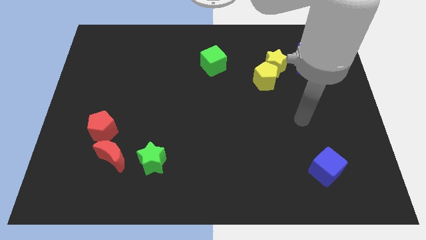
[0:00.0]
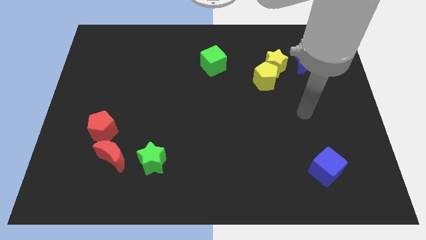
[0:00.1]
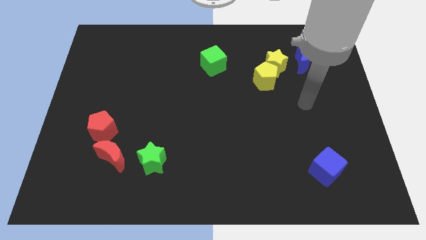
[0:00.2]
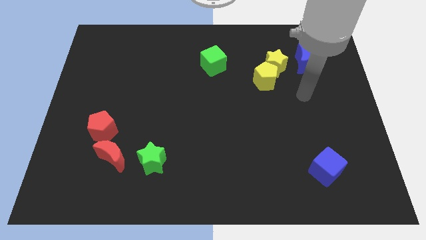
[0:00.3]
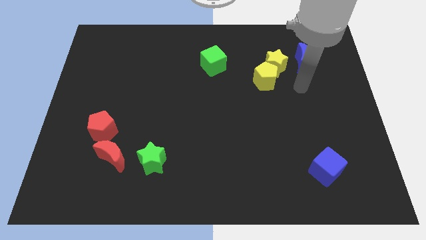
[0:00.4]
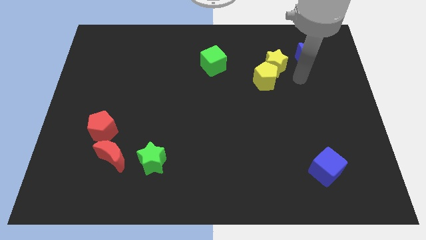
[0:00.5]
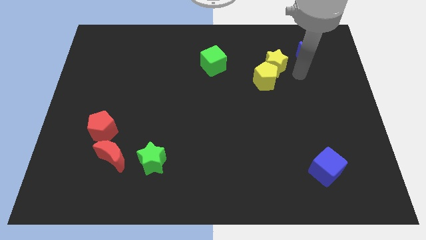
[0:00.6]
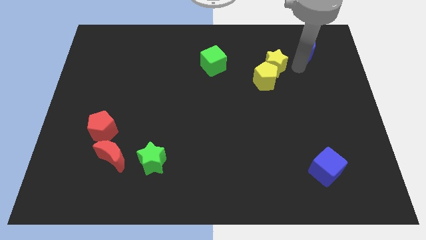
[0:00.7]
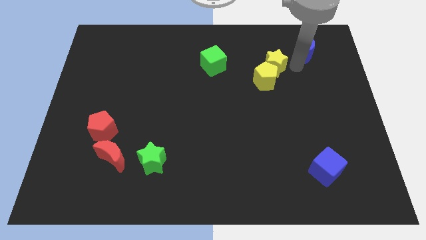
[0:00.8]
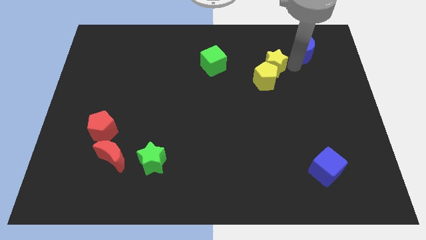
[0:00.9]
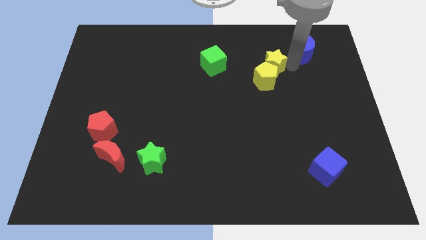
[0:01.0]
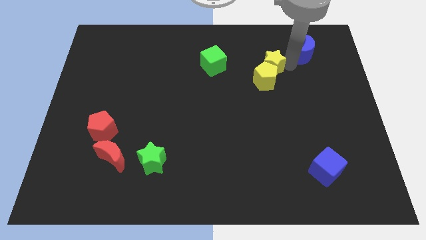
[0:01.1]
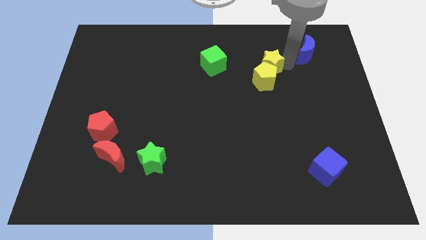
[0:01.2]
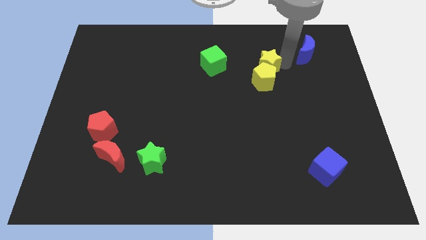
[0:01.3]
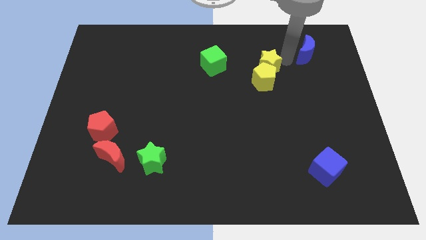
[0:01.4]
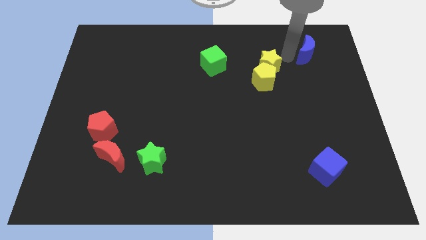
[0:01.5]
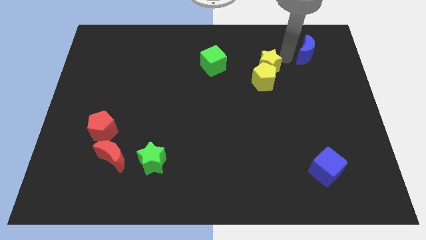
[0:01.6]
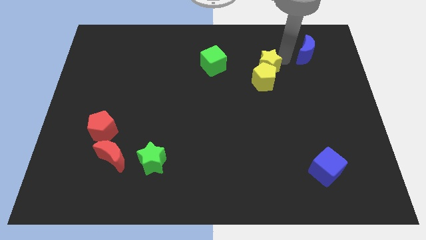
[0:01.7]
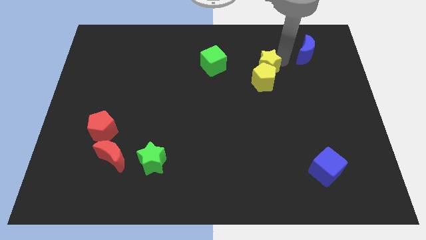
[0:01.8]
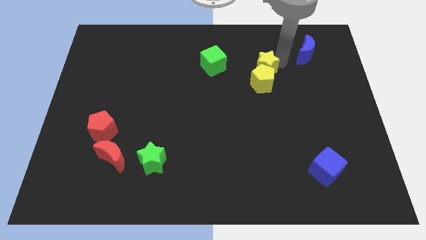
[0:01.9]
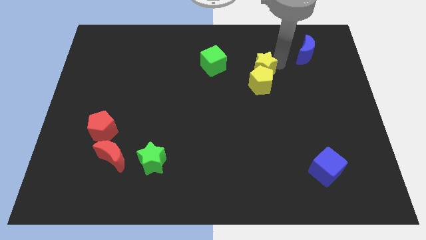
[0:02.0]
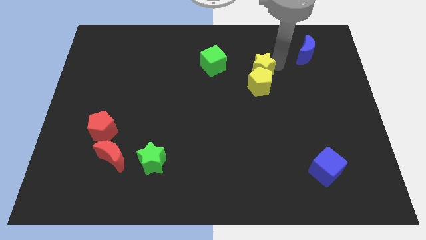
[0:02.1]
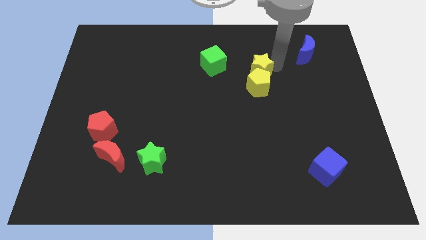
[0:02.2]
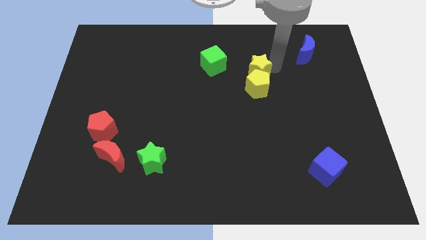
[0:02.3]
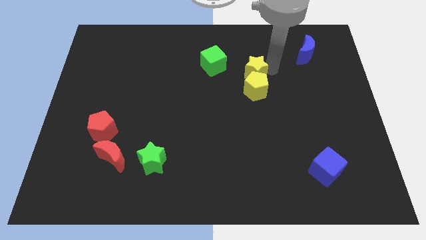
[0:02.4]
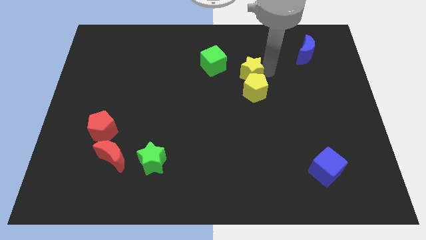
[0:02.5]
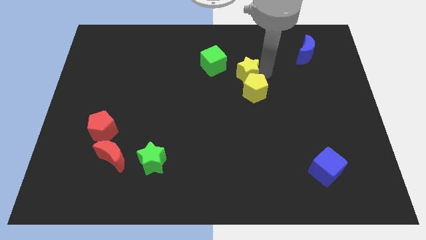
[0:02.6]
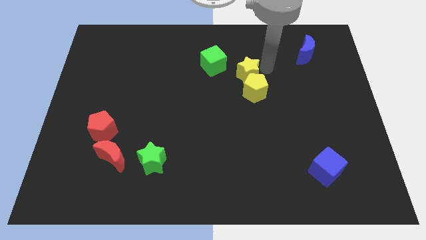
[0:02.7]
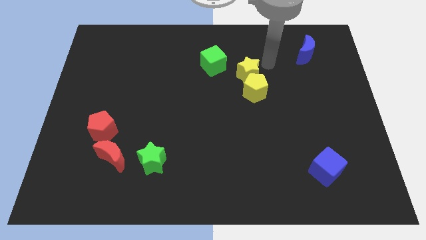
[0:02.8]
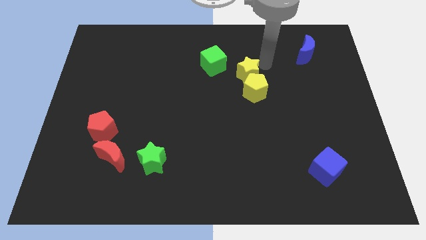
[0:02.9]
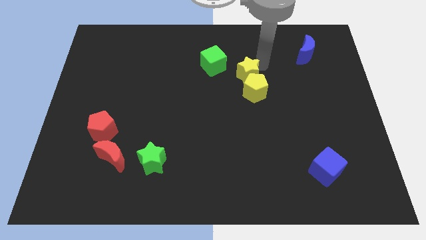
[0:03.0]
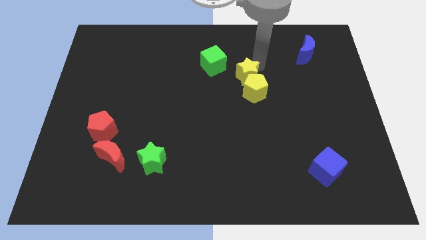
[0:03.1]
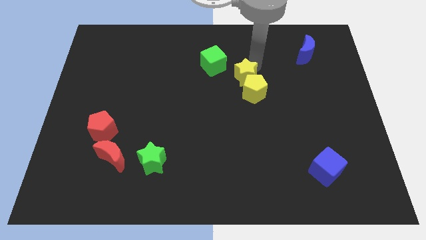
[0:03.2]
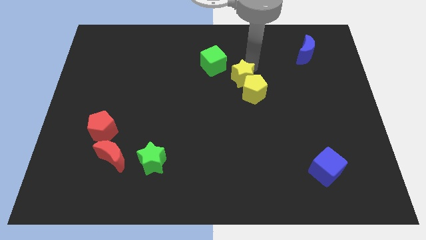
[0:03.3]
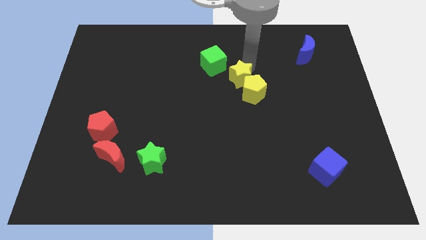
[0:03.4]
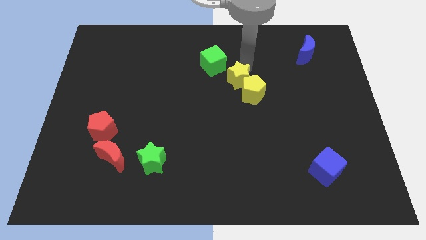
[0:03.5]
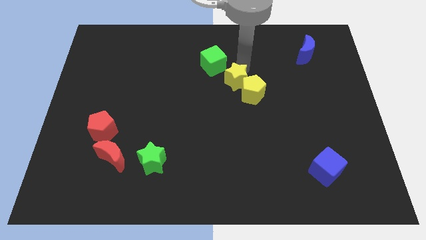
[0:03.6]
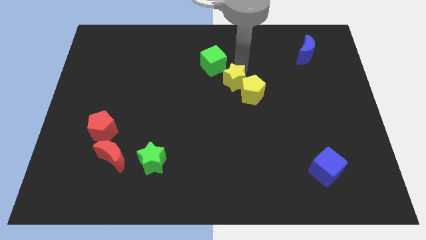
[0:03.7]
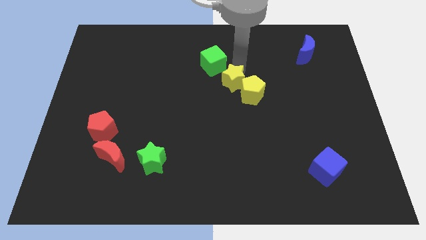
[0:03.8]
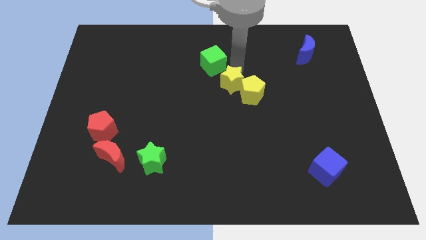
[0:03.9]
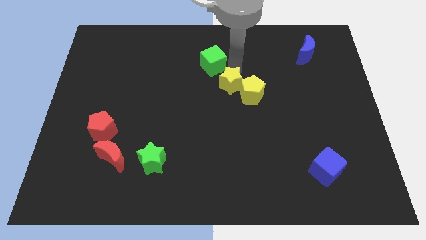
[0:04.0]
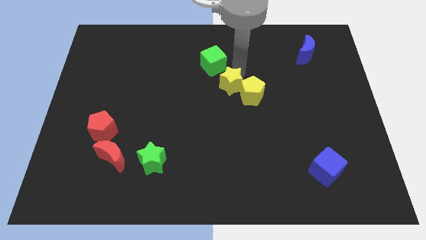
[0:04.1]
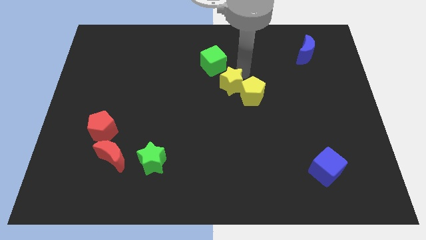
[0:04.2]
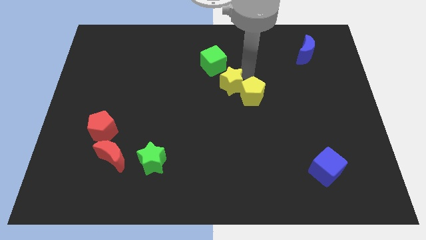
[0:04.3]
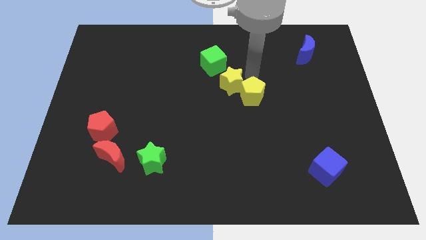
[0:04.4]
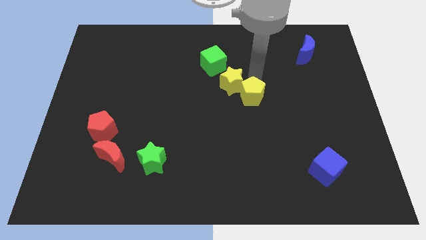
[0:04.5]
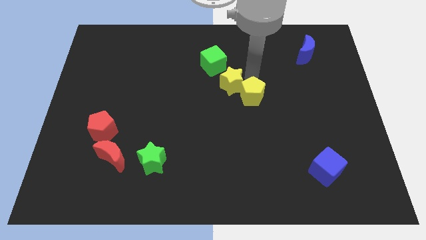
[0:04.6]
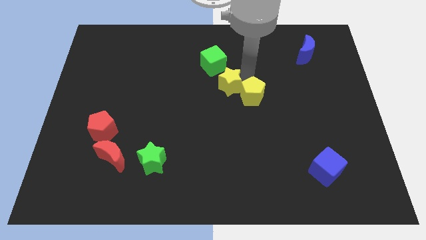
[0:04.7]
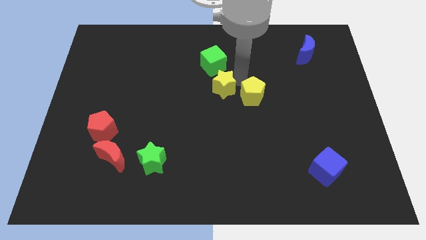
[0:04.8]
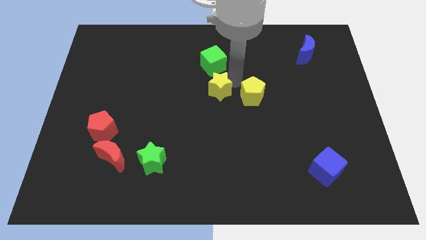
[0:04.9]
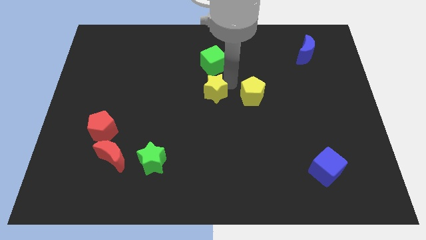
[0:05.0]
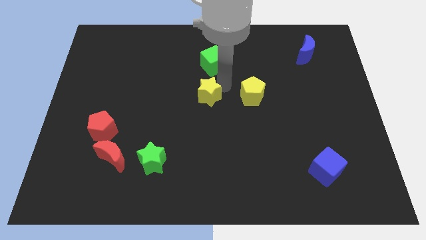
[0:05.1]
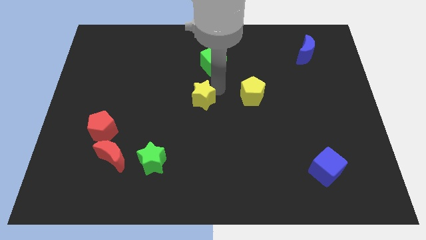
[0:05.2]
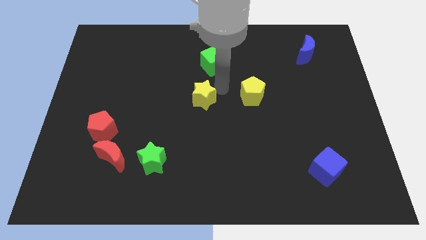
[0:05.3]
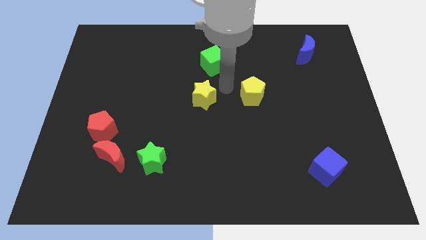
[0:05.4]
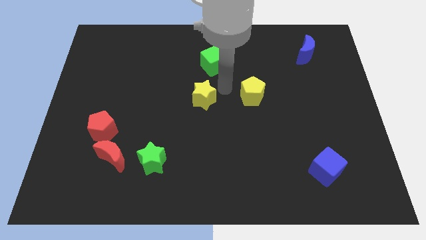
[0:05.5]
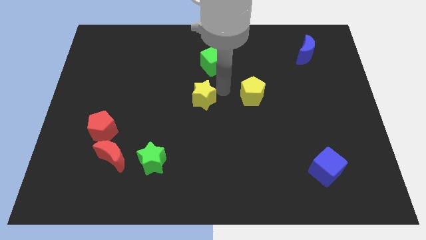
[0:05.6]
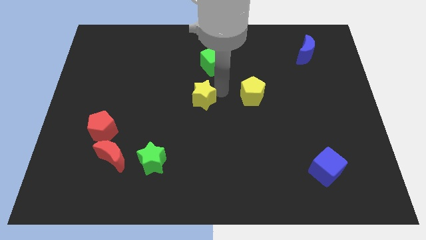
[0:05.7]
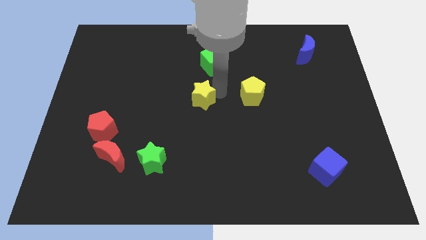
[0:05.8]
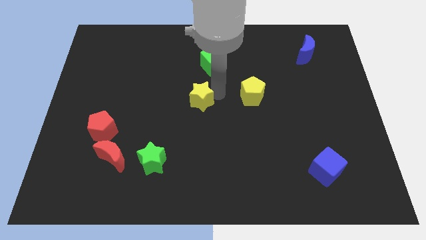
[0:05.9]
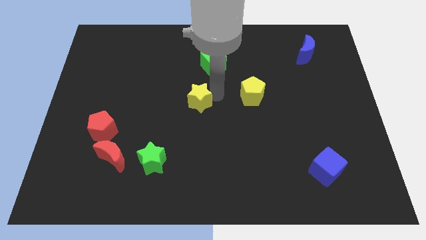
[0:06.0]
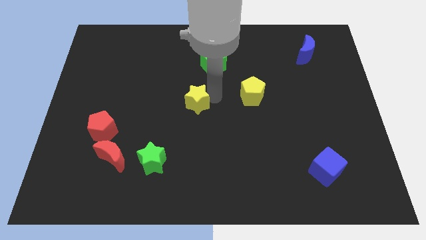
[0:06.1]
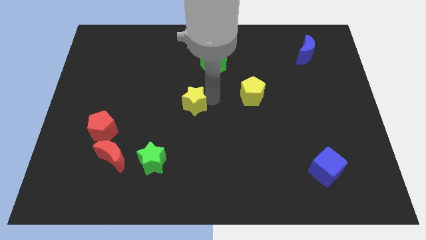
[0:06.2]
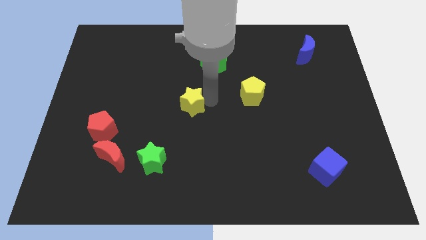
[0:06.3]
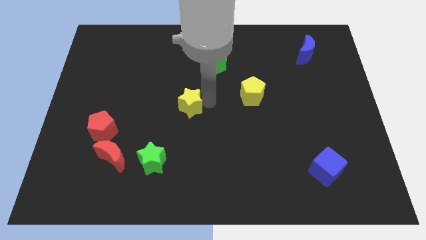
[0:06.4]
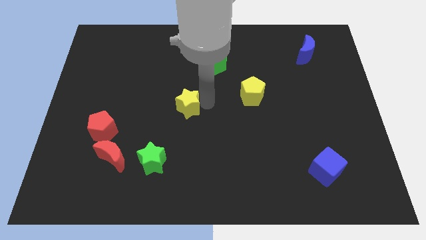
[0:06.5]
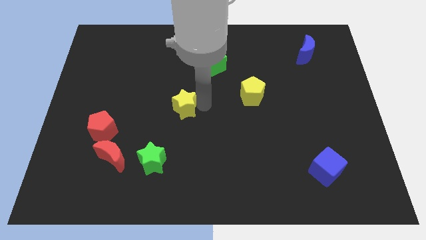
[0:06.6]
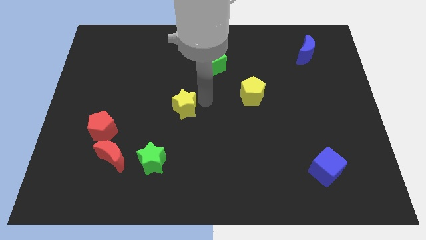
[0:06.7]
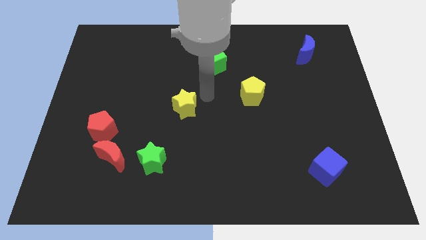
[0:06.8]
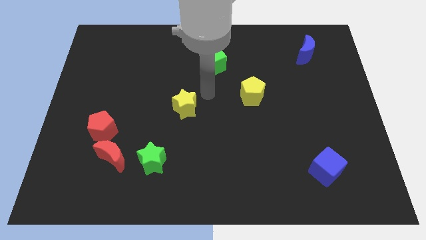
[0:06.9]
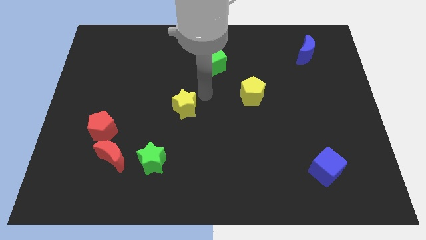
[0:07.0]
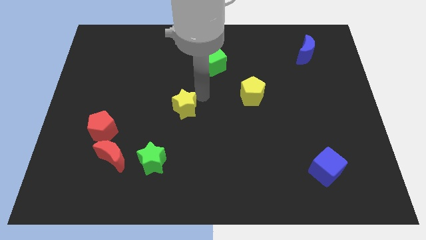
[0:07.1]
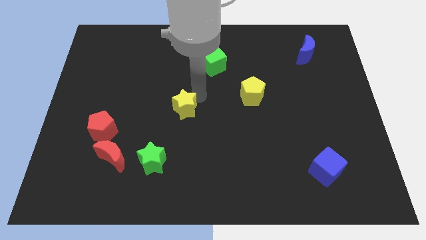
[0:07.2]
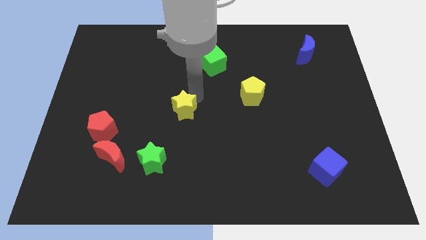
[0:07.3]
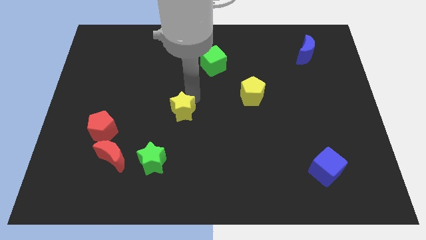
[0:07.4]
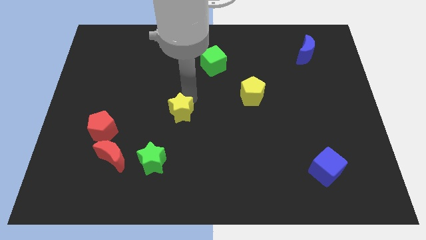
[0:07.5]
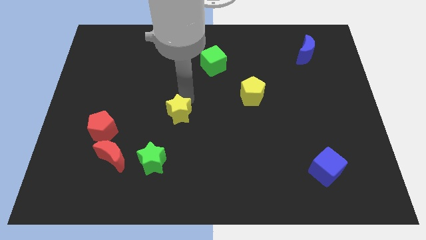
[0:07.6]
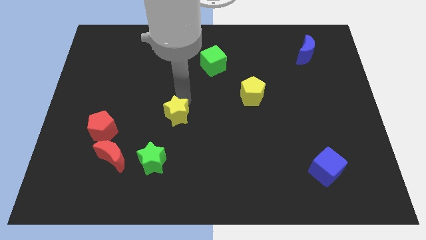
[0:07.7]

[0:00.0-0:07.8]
slide the yellow star above the green star
